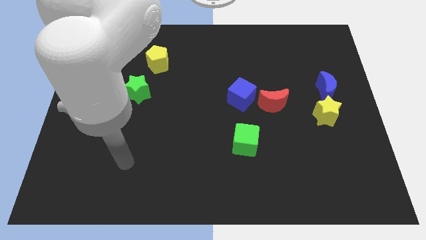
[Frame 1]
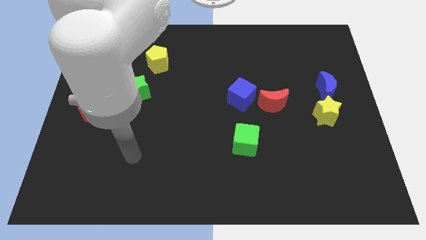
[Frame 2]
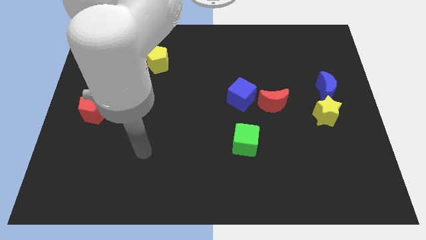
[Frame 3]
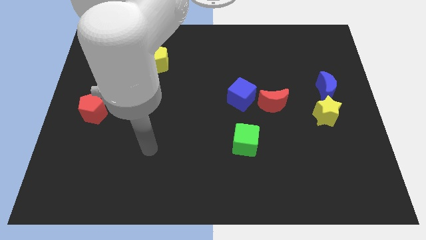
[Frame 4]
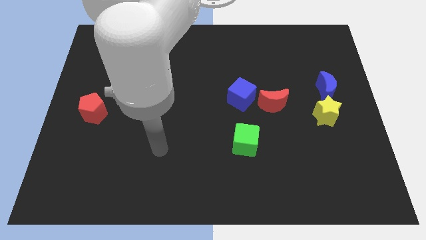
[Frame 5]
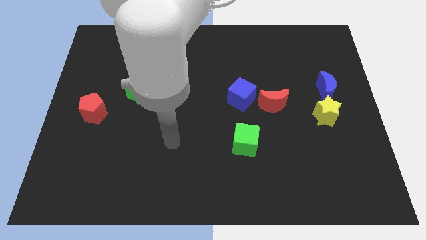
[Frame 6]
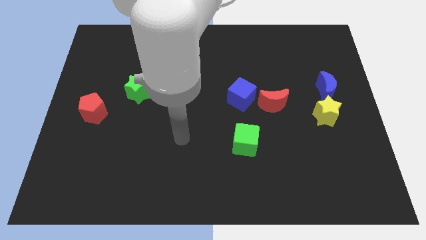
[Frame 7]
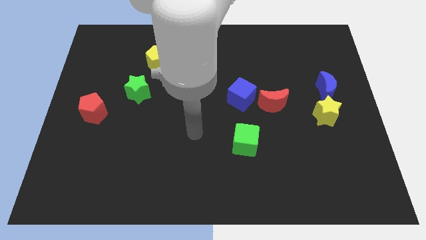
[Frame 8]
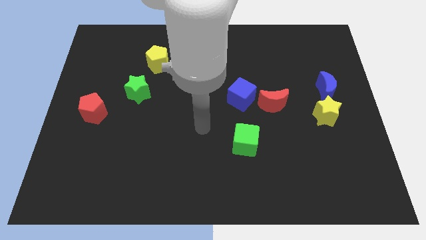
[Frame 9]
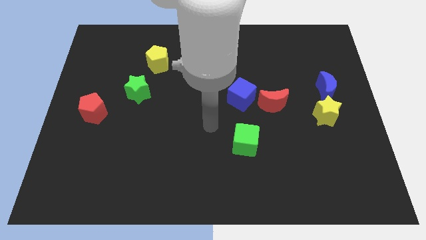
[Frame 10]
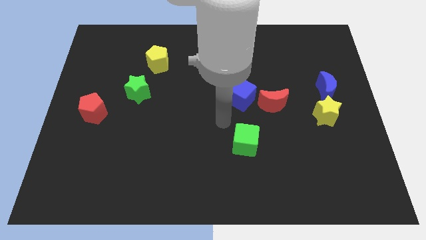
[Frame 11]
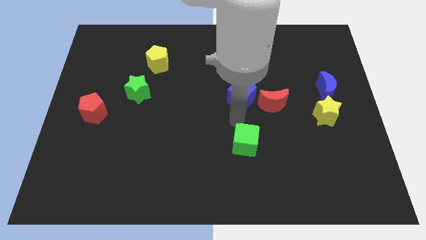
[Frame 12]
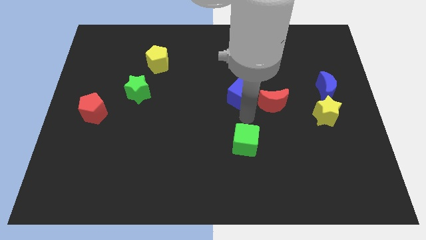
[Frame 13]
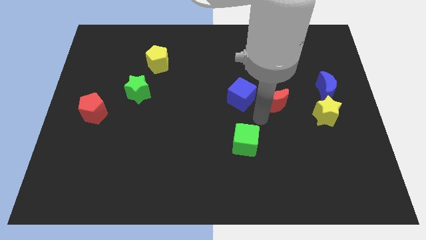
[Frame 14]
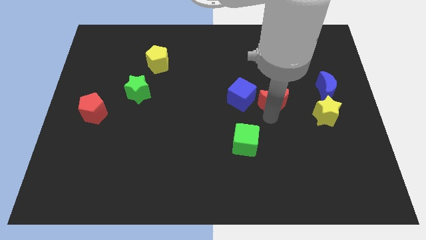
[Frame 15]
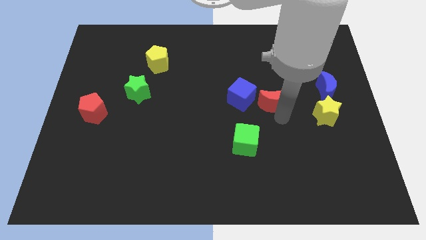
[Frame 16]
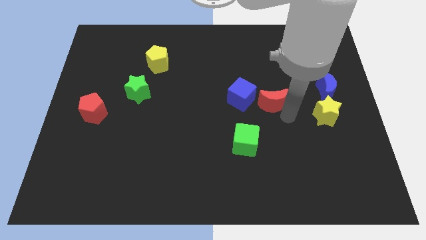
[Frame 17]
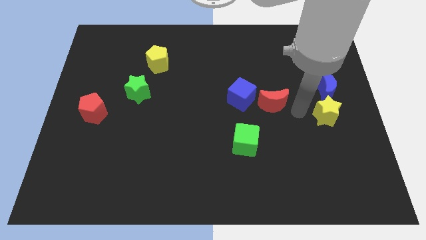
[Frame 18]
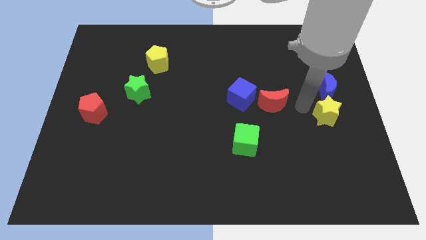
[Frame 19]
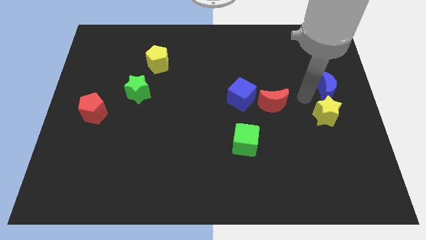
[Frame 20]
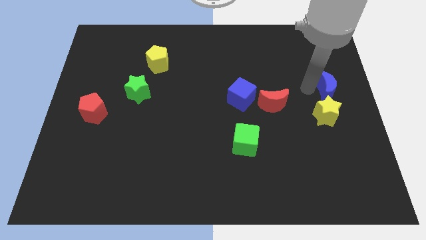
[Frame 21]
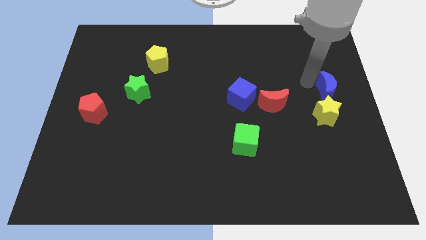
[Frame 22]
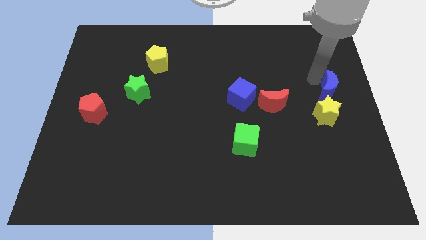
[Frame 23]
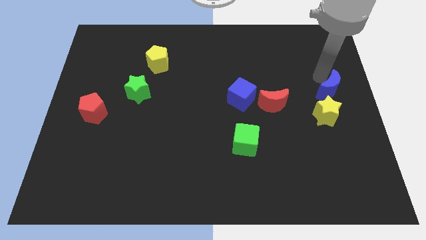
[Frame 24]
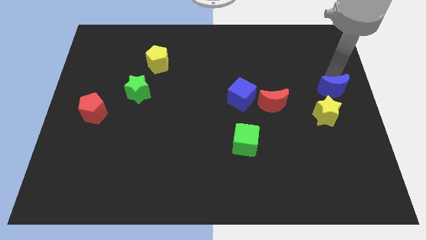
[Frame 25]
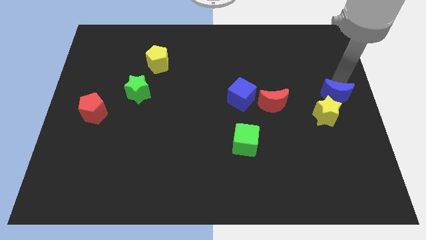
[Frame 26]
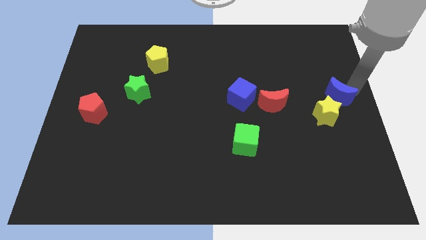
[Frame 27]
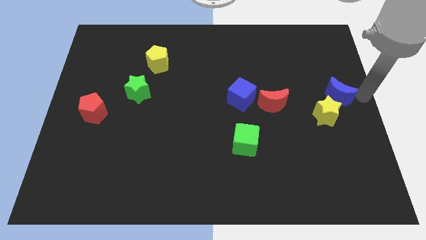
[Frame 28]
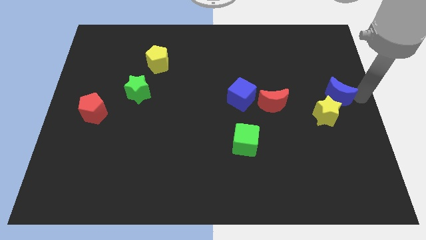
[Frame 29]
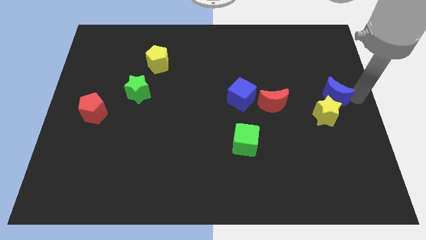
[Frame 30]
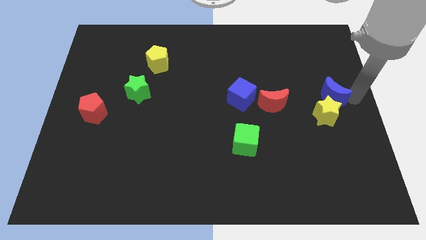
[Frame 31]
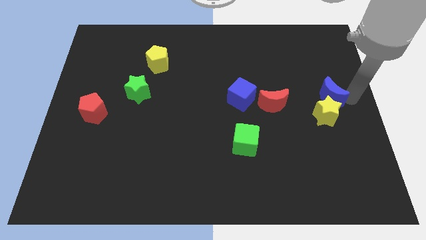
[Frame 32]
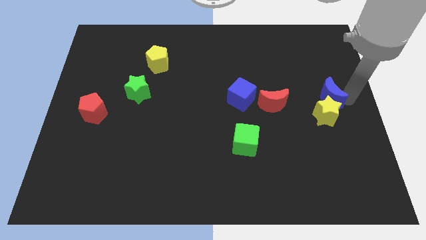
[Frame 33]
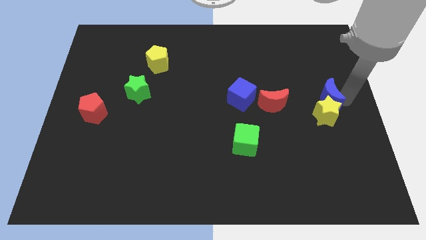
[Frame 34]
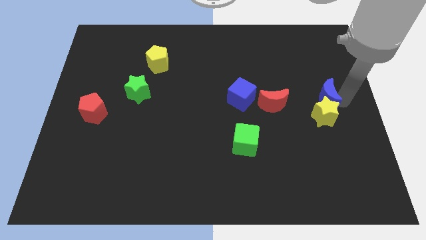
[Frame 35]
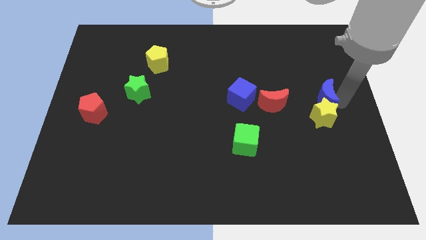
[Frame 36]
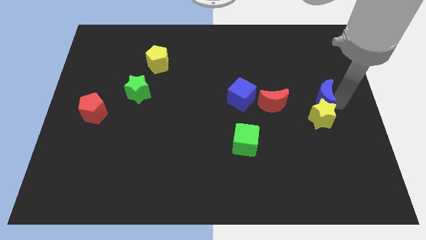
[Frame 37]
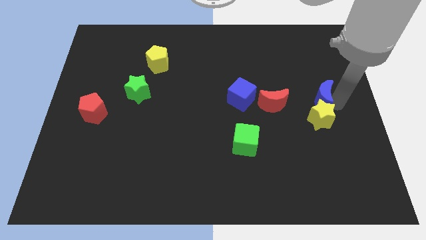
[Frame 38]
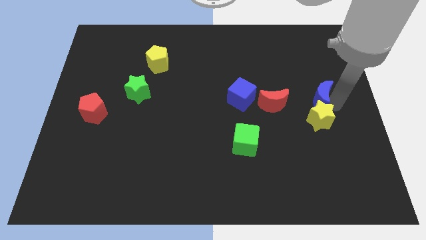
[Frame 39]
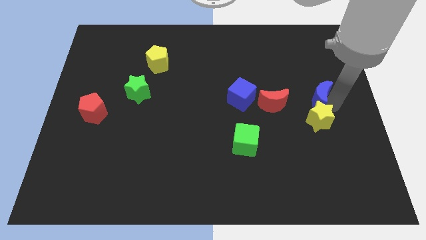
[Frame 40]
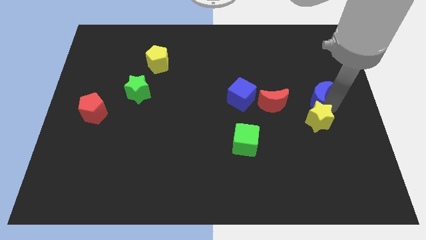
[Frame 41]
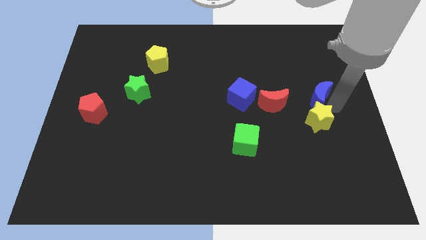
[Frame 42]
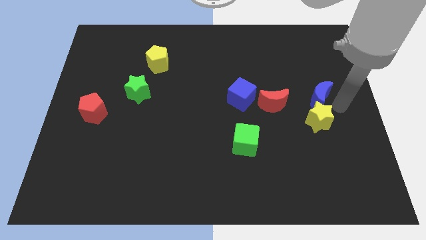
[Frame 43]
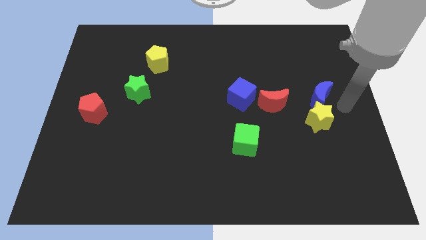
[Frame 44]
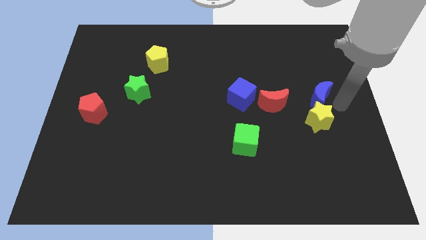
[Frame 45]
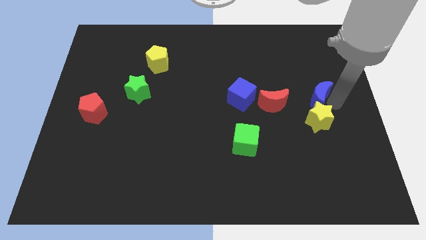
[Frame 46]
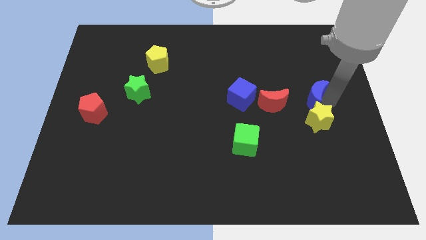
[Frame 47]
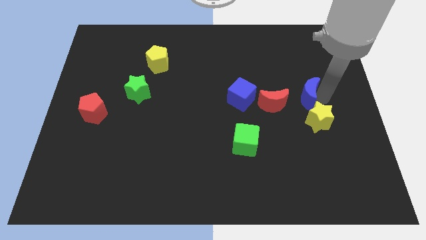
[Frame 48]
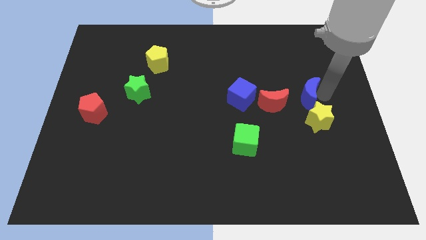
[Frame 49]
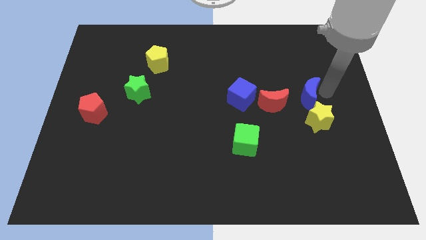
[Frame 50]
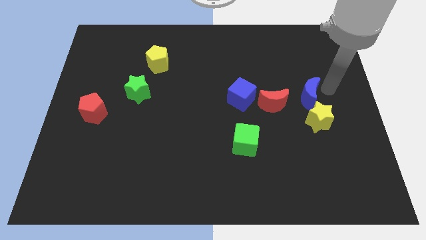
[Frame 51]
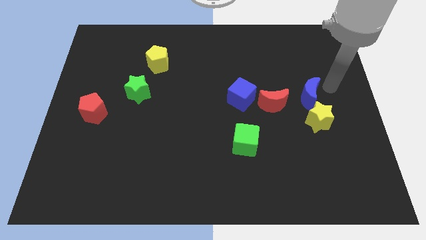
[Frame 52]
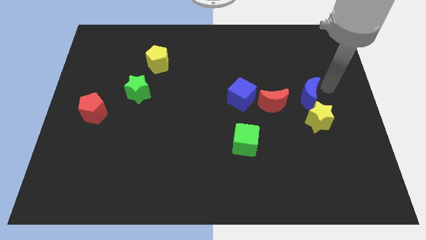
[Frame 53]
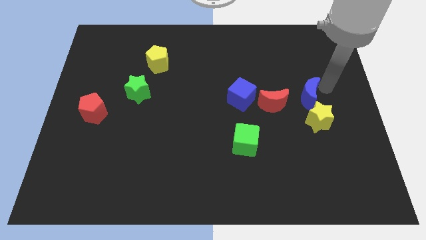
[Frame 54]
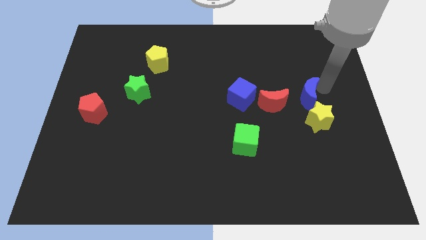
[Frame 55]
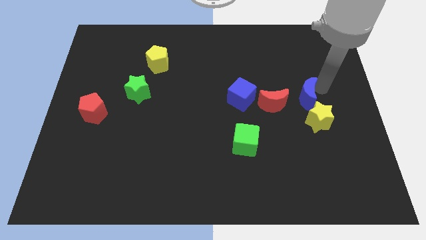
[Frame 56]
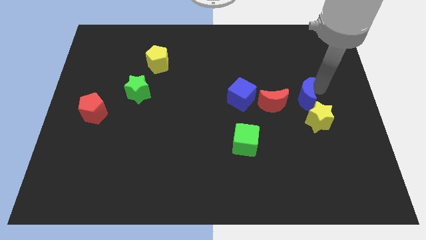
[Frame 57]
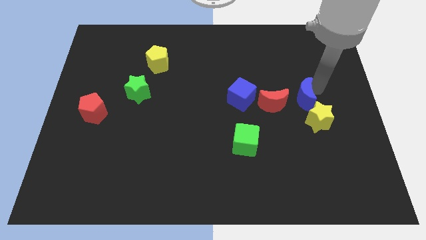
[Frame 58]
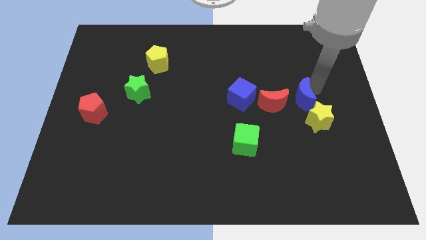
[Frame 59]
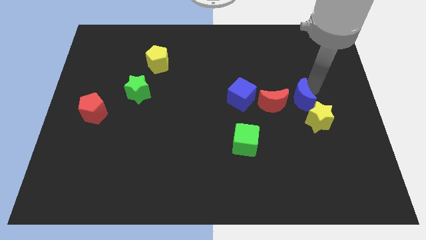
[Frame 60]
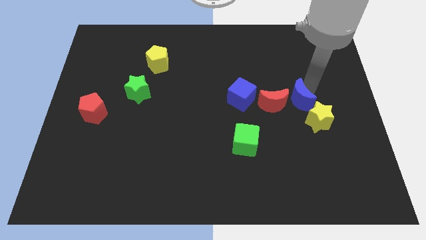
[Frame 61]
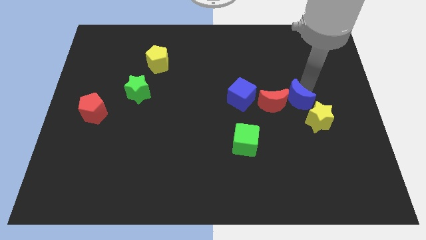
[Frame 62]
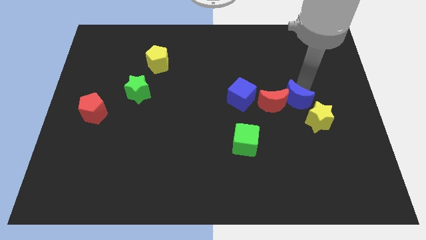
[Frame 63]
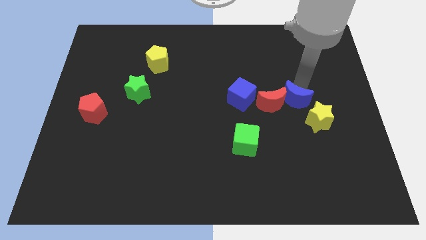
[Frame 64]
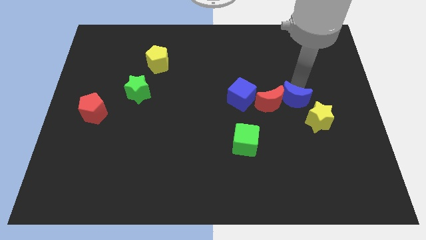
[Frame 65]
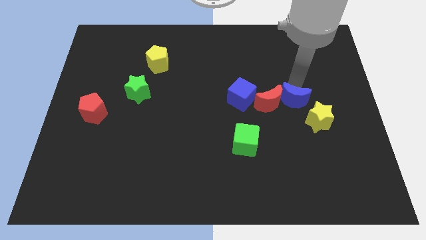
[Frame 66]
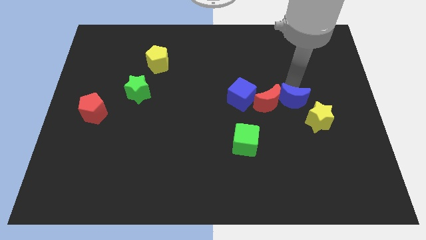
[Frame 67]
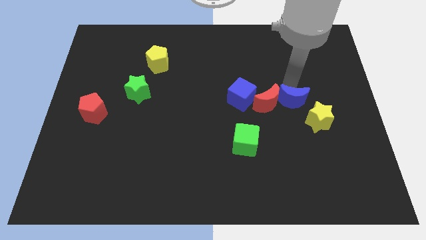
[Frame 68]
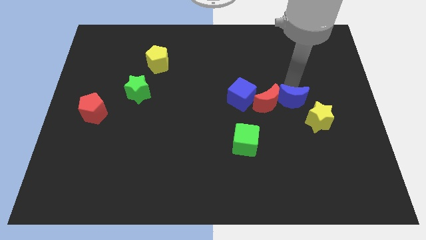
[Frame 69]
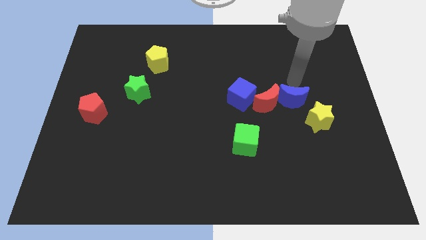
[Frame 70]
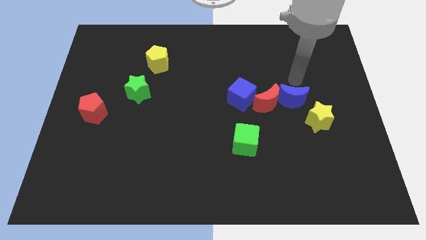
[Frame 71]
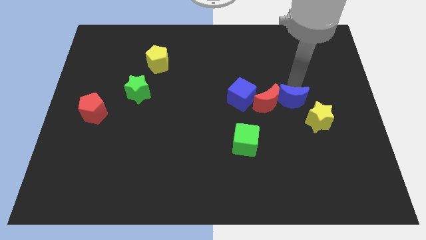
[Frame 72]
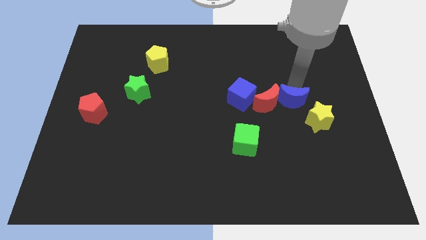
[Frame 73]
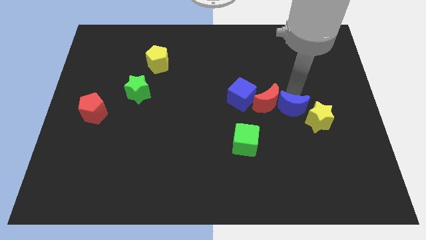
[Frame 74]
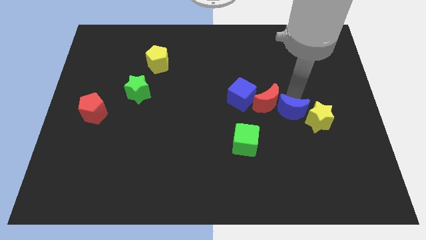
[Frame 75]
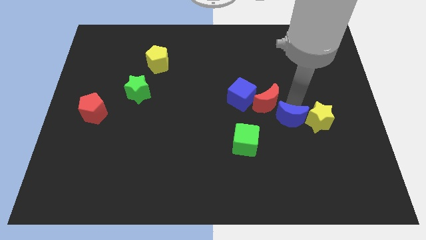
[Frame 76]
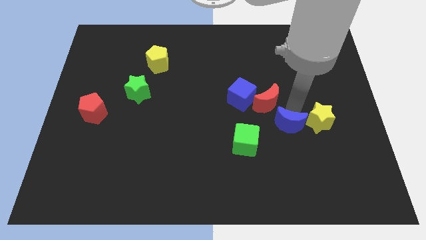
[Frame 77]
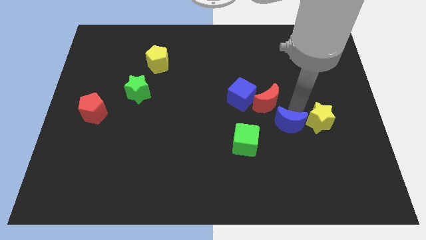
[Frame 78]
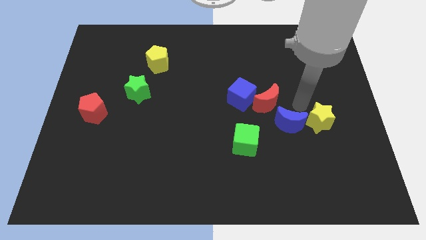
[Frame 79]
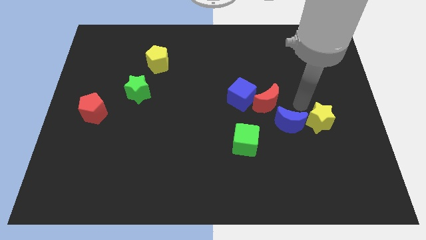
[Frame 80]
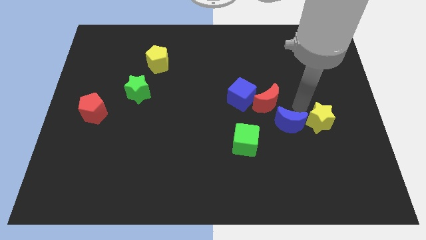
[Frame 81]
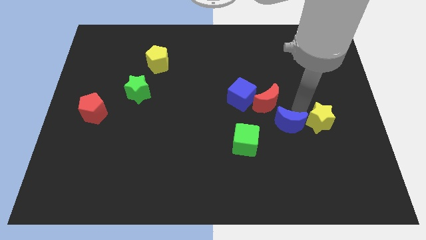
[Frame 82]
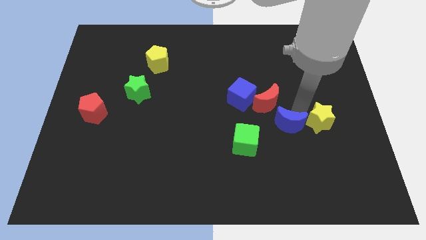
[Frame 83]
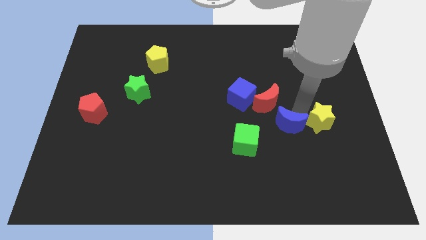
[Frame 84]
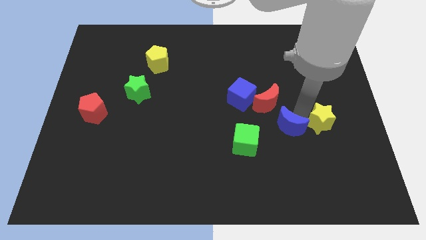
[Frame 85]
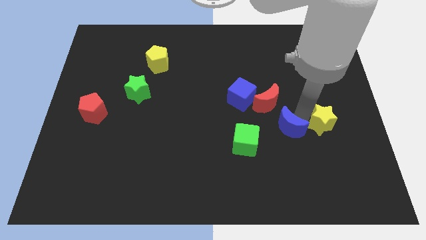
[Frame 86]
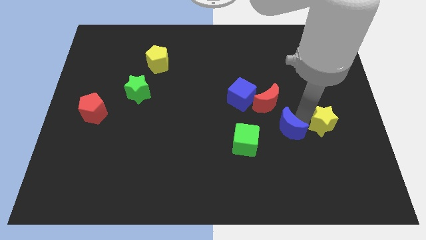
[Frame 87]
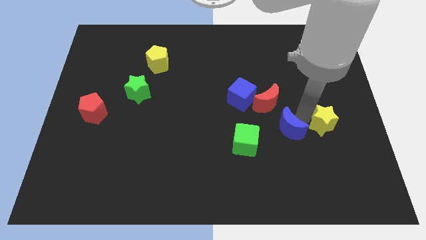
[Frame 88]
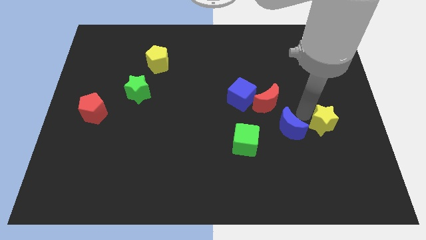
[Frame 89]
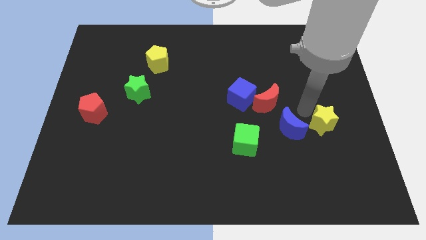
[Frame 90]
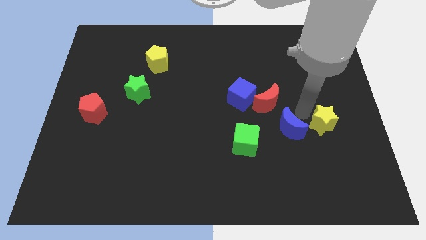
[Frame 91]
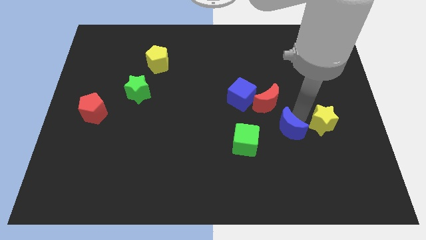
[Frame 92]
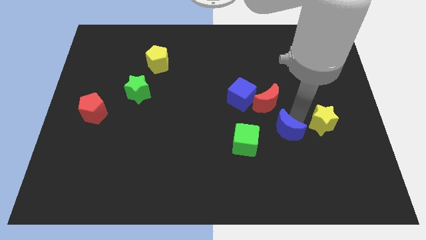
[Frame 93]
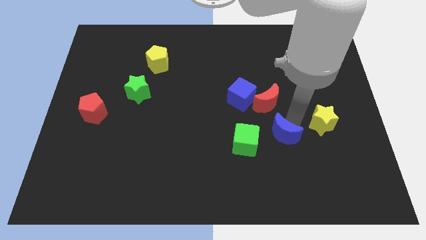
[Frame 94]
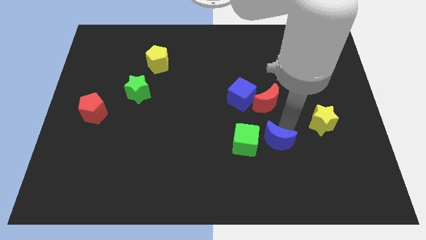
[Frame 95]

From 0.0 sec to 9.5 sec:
move the blue moon down and left diagonally
